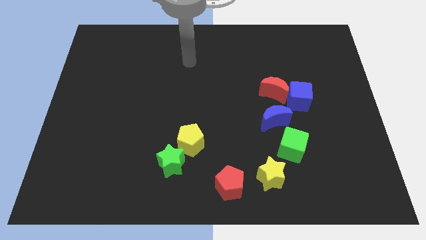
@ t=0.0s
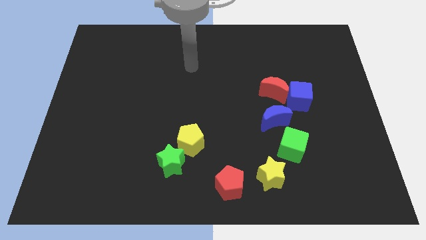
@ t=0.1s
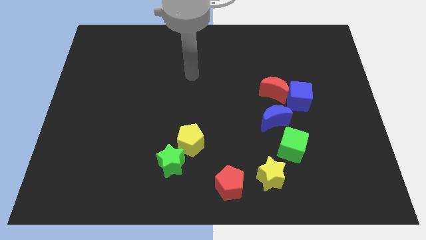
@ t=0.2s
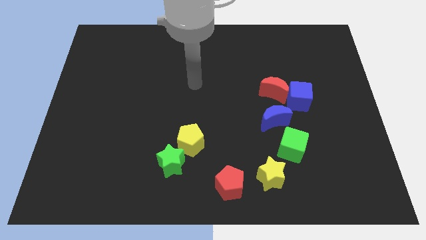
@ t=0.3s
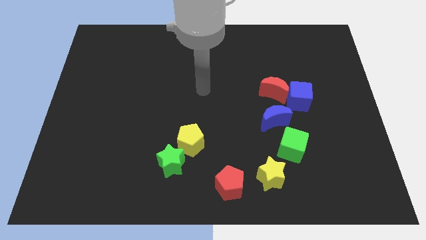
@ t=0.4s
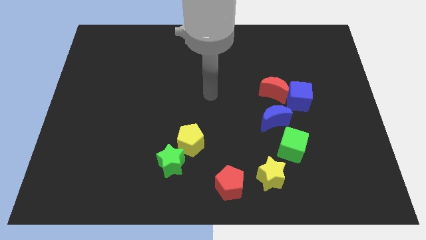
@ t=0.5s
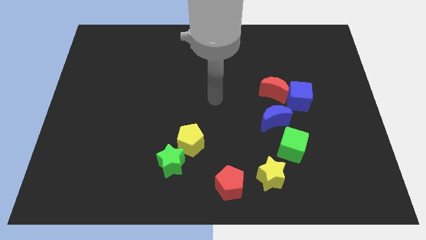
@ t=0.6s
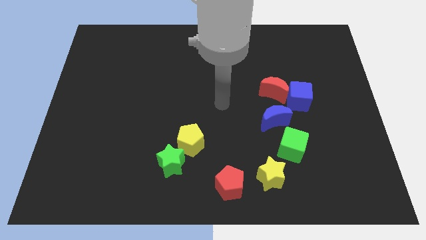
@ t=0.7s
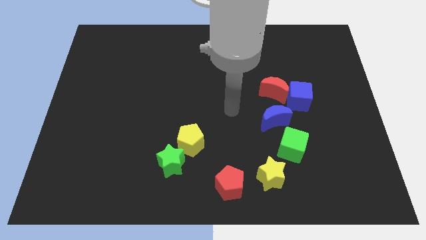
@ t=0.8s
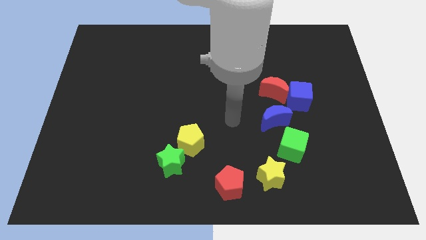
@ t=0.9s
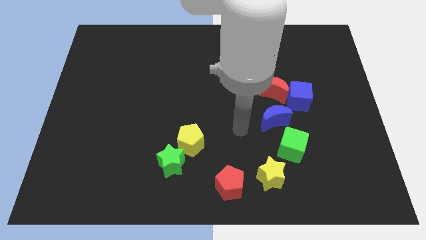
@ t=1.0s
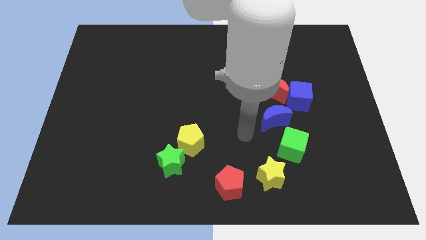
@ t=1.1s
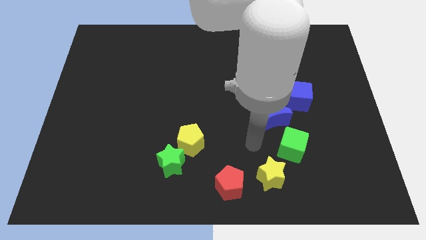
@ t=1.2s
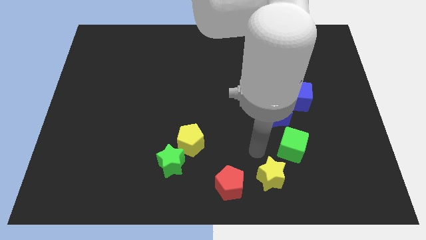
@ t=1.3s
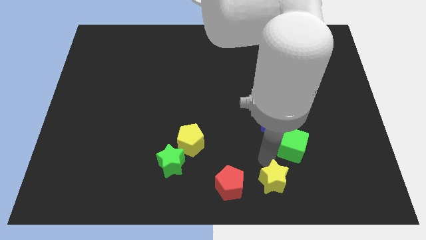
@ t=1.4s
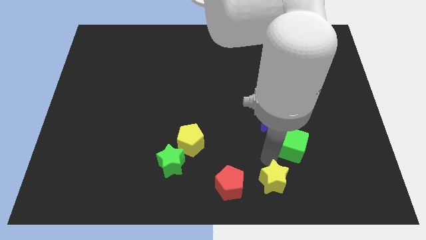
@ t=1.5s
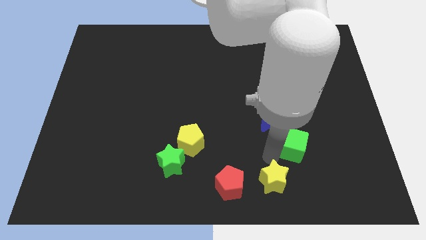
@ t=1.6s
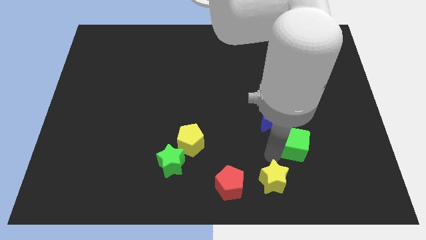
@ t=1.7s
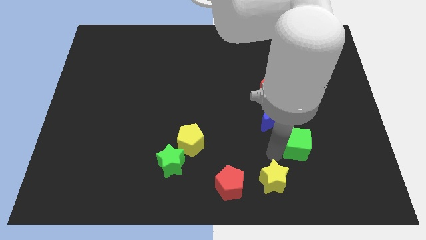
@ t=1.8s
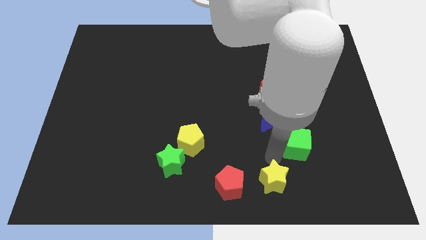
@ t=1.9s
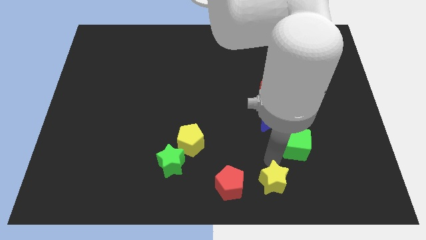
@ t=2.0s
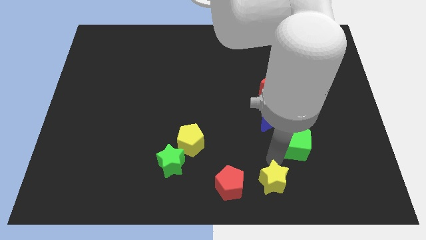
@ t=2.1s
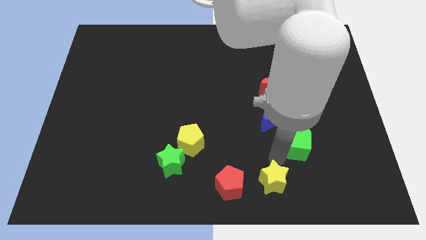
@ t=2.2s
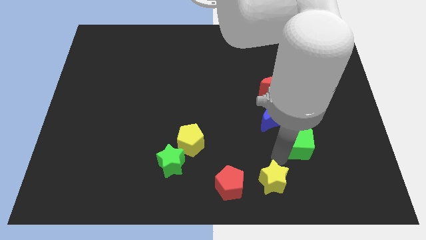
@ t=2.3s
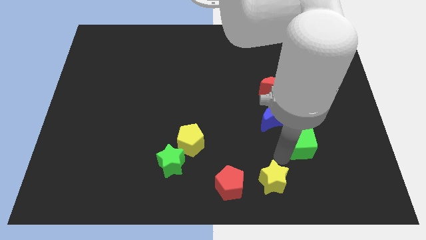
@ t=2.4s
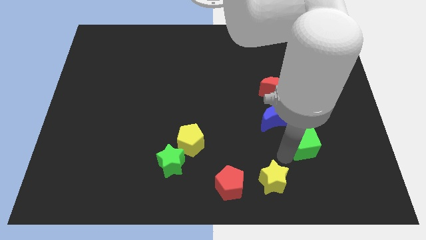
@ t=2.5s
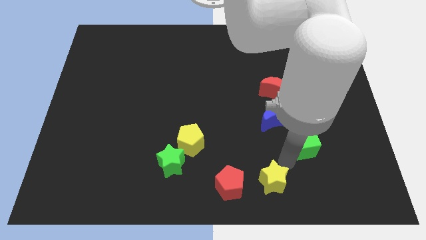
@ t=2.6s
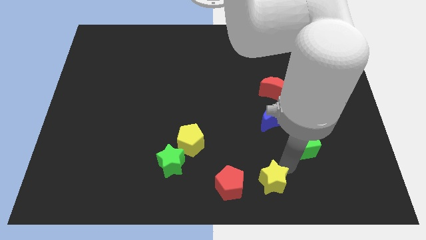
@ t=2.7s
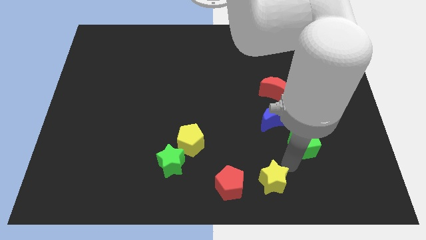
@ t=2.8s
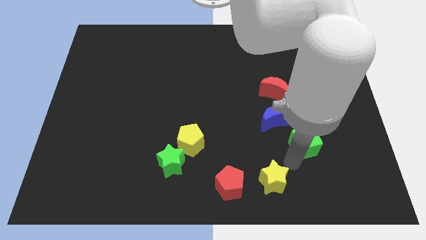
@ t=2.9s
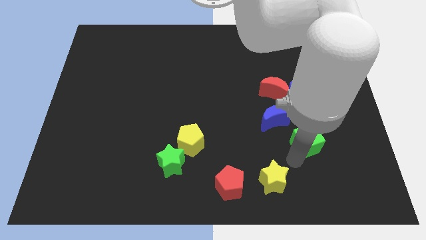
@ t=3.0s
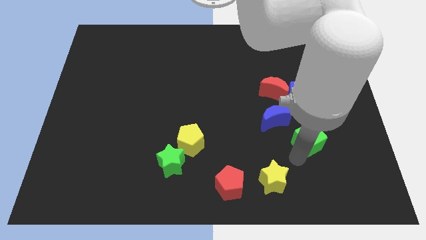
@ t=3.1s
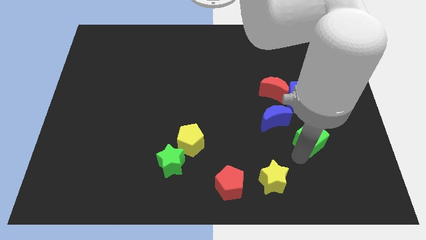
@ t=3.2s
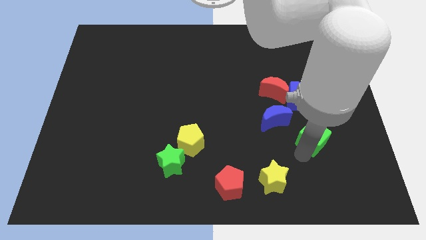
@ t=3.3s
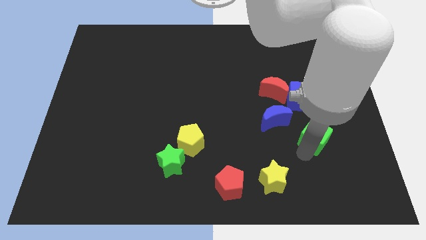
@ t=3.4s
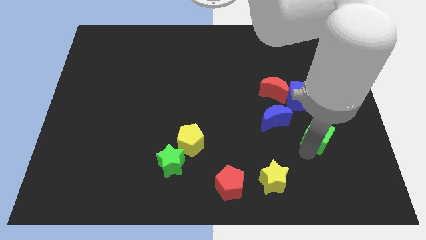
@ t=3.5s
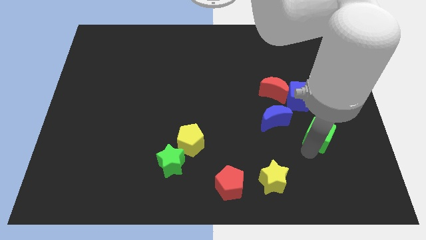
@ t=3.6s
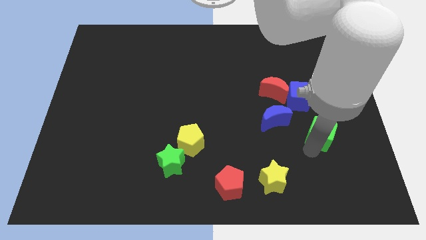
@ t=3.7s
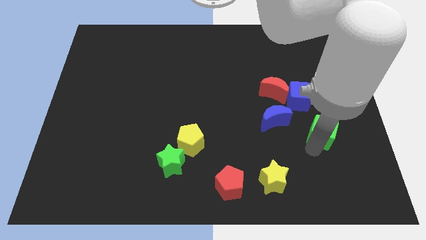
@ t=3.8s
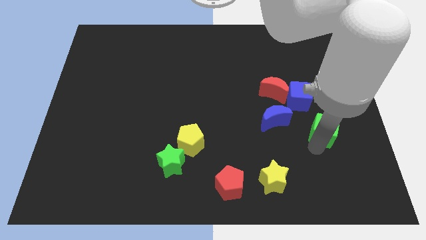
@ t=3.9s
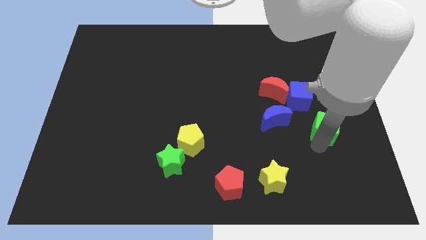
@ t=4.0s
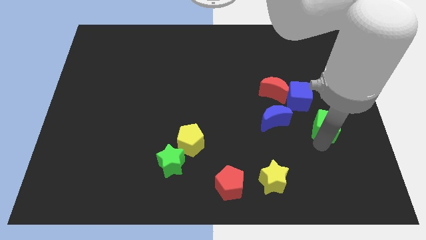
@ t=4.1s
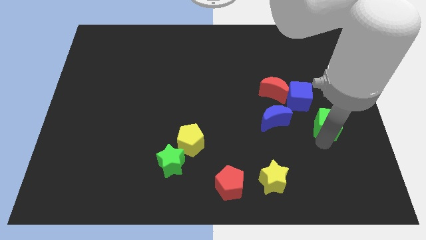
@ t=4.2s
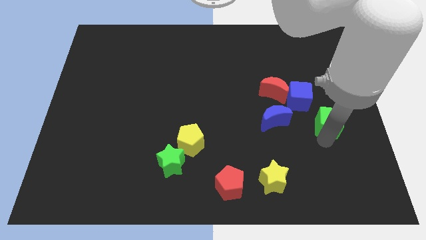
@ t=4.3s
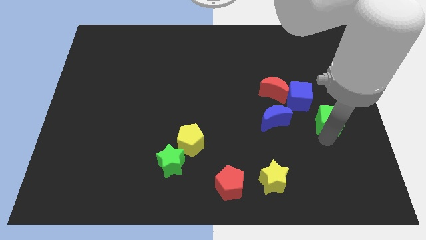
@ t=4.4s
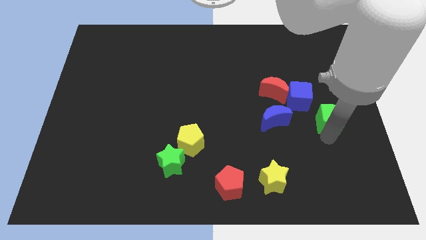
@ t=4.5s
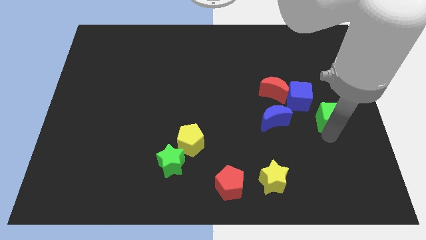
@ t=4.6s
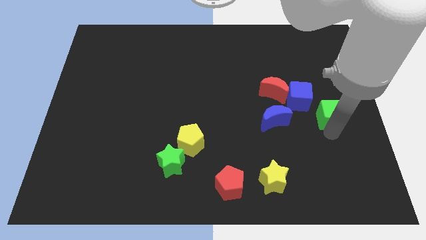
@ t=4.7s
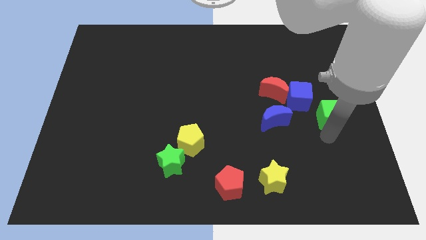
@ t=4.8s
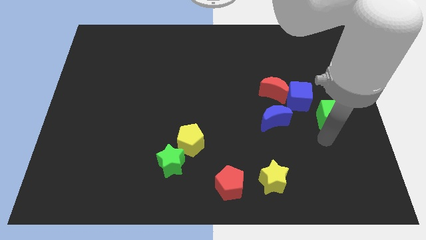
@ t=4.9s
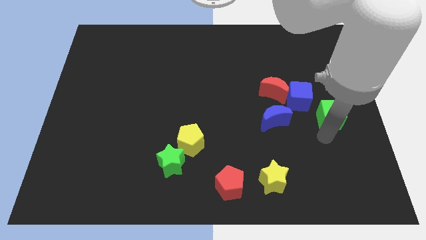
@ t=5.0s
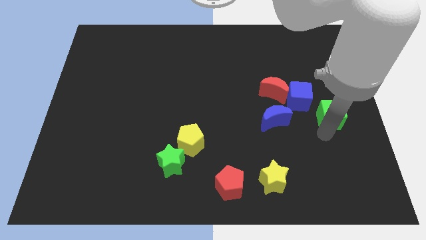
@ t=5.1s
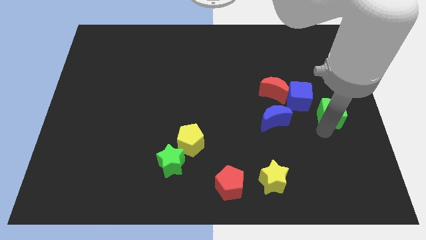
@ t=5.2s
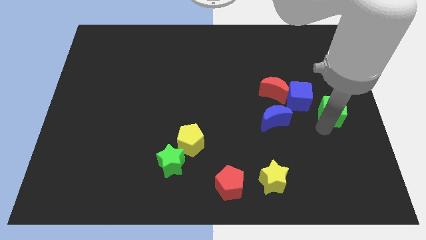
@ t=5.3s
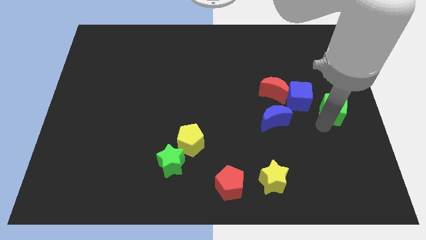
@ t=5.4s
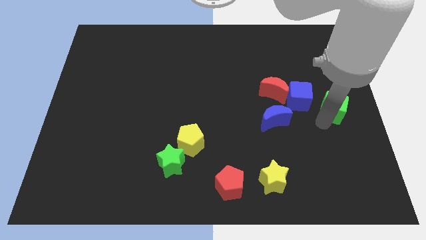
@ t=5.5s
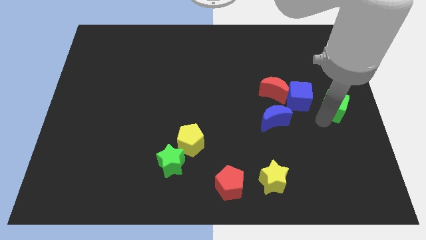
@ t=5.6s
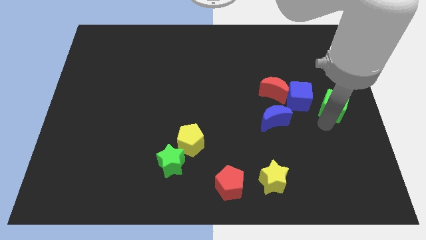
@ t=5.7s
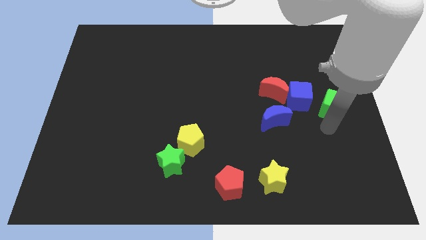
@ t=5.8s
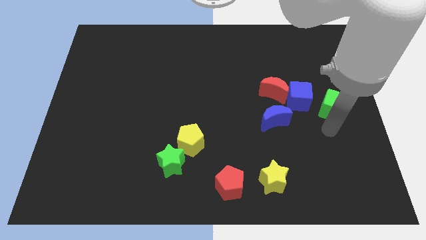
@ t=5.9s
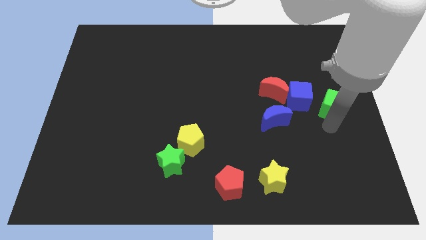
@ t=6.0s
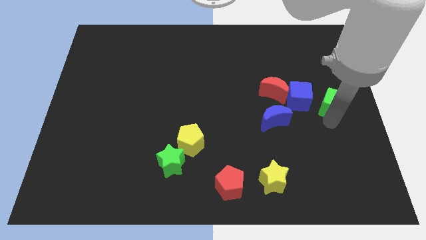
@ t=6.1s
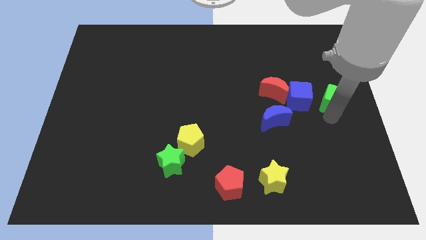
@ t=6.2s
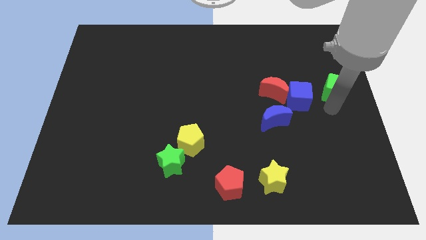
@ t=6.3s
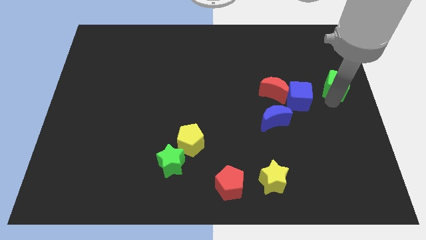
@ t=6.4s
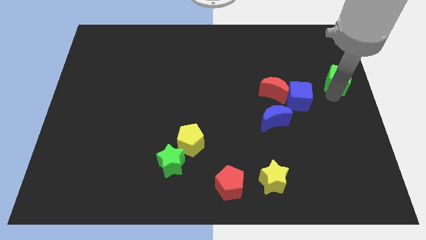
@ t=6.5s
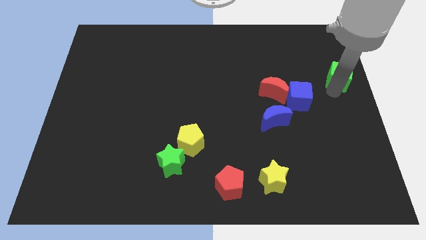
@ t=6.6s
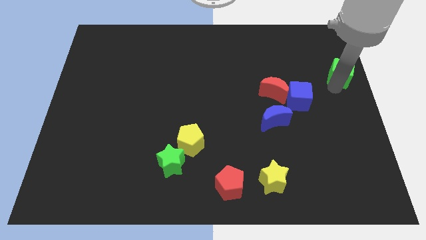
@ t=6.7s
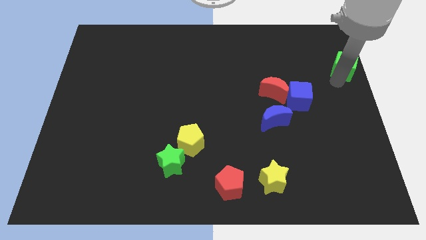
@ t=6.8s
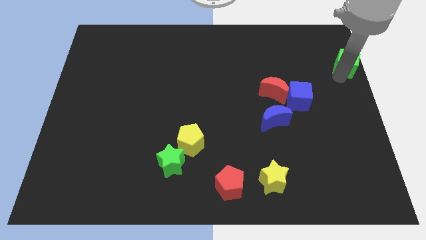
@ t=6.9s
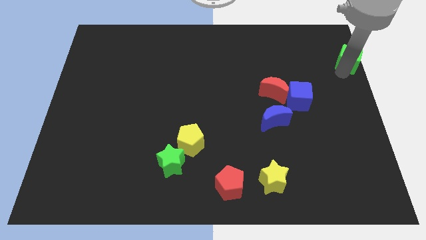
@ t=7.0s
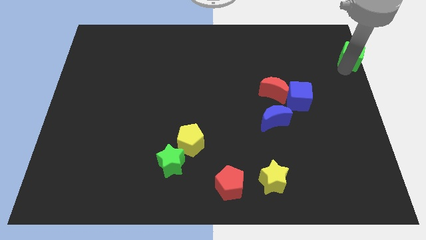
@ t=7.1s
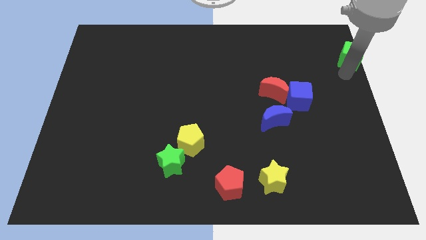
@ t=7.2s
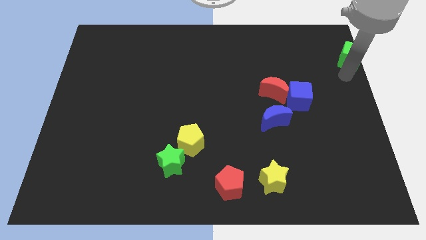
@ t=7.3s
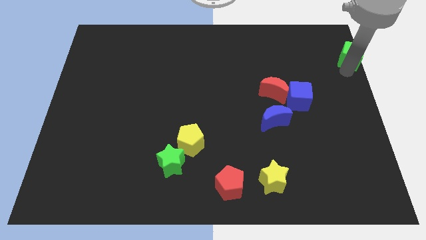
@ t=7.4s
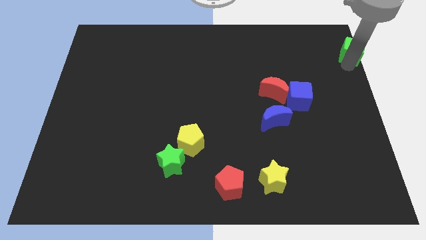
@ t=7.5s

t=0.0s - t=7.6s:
move the green cube to the upper right corner
